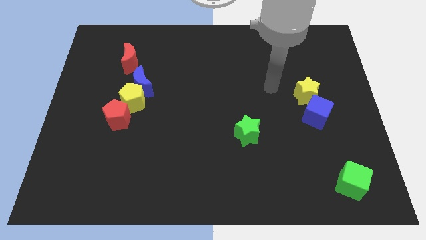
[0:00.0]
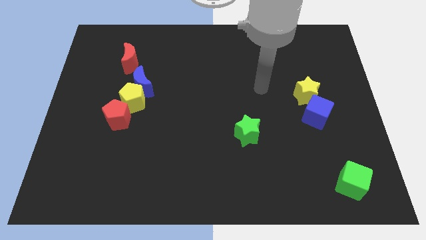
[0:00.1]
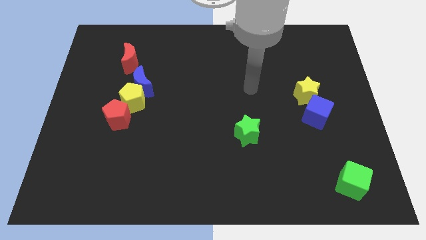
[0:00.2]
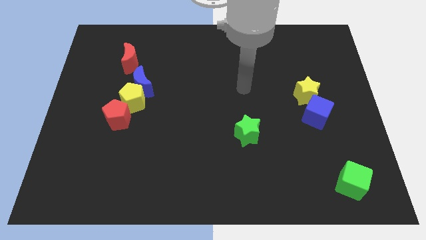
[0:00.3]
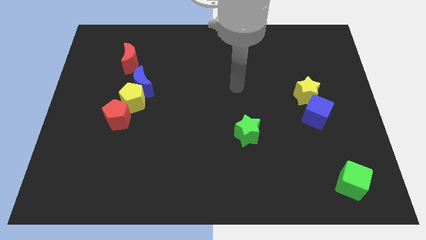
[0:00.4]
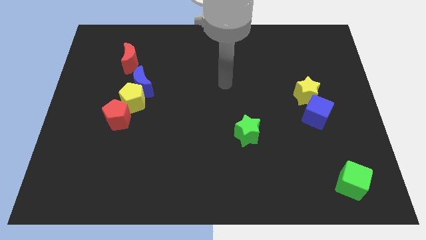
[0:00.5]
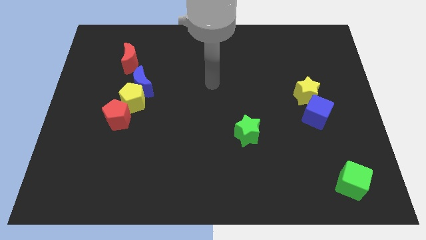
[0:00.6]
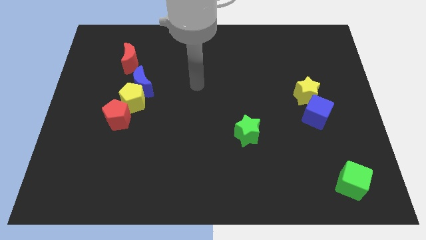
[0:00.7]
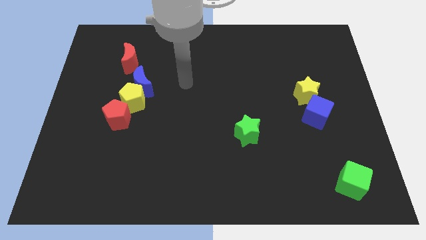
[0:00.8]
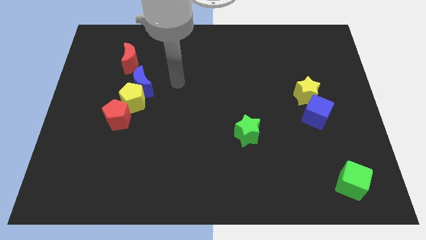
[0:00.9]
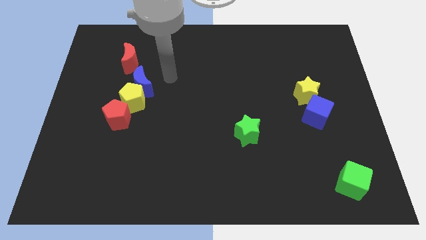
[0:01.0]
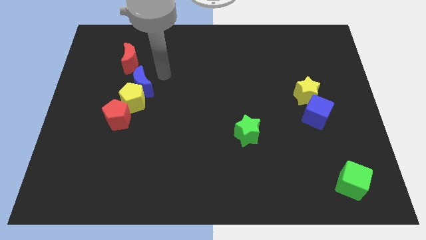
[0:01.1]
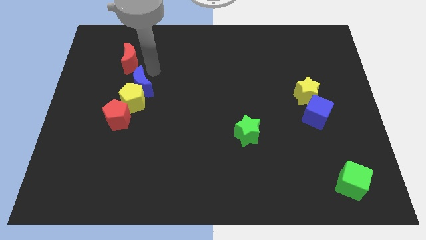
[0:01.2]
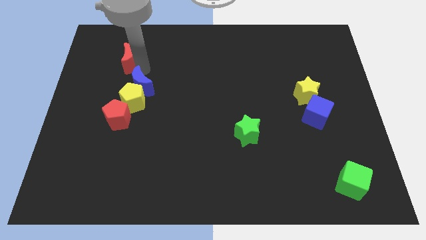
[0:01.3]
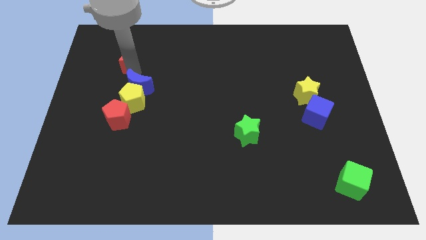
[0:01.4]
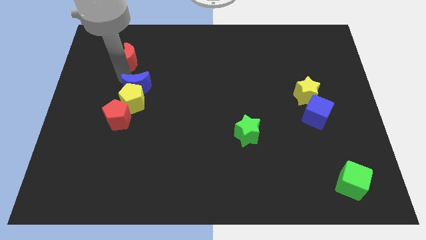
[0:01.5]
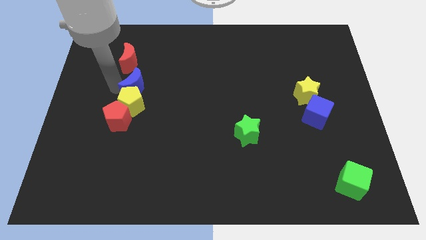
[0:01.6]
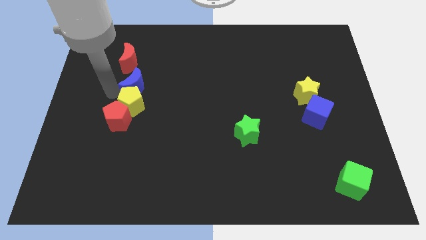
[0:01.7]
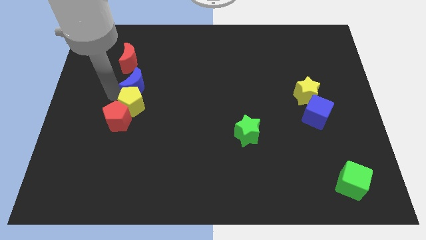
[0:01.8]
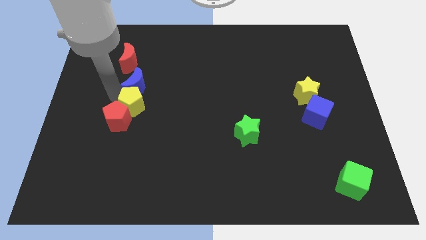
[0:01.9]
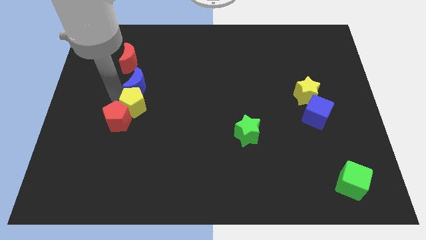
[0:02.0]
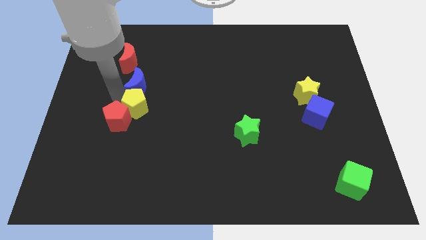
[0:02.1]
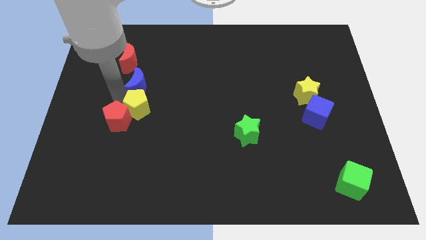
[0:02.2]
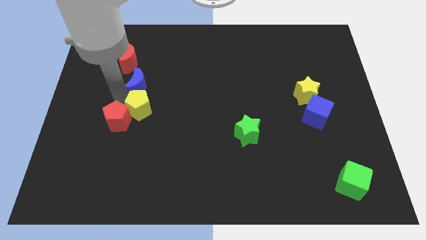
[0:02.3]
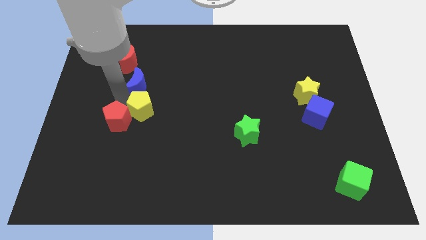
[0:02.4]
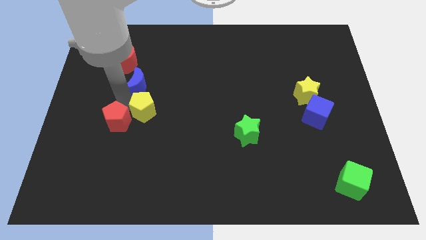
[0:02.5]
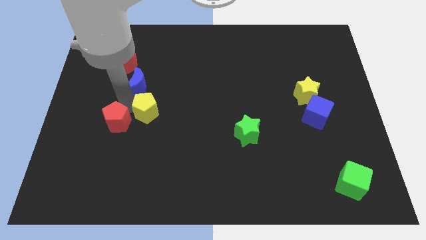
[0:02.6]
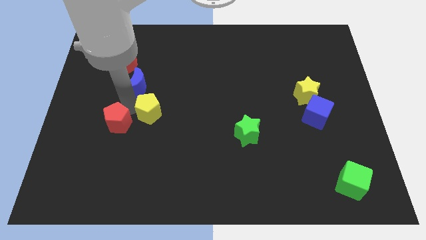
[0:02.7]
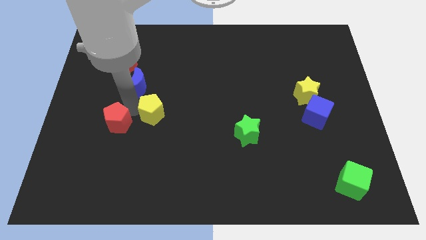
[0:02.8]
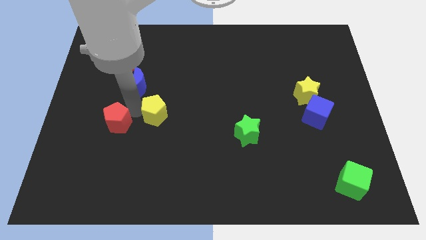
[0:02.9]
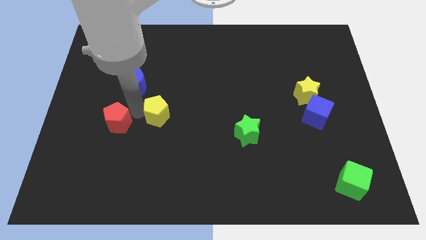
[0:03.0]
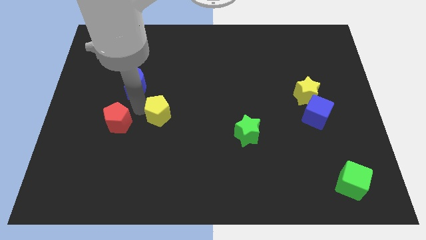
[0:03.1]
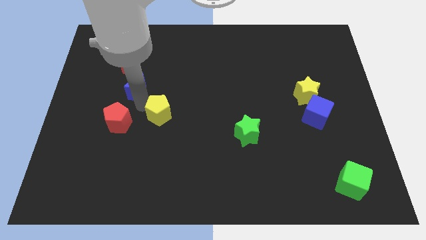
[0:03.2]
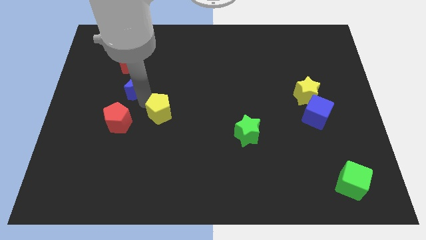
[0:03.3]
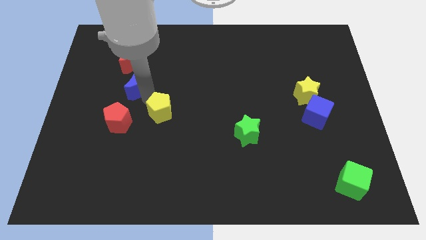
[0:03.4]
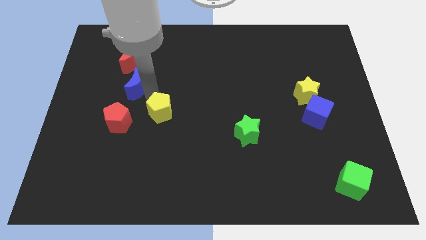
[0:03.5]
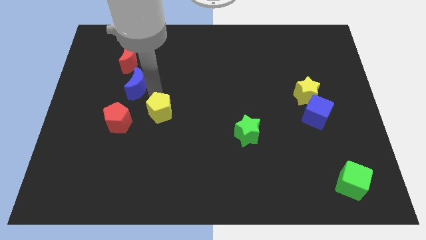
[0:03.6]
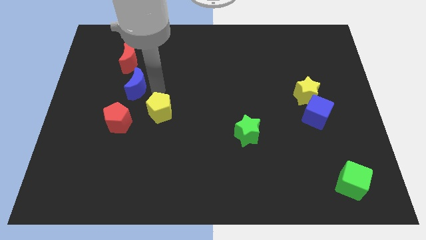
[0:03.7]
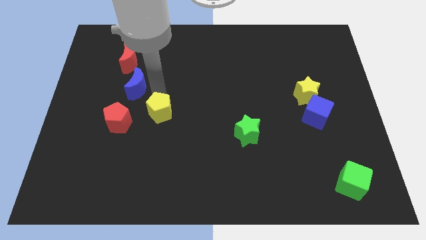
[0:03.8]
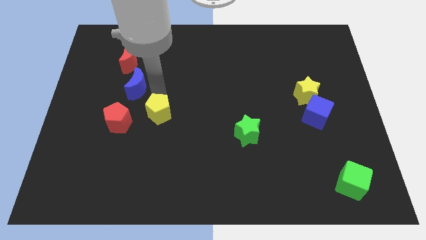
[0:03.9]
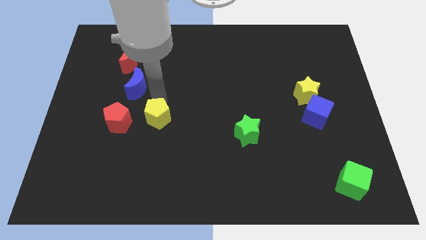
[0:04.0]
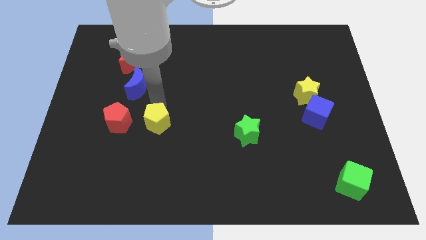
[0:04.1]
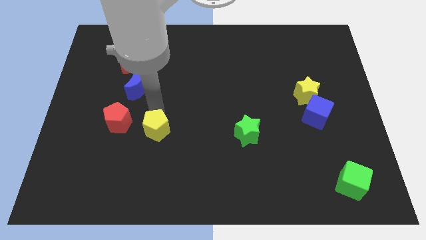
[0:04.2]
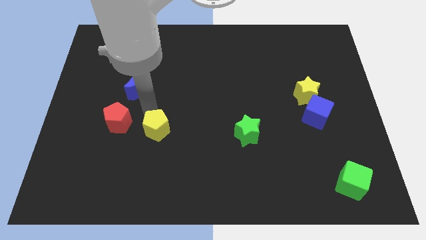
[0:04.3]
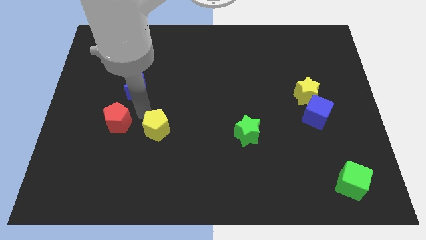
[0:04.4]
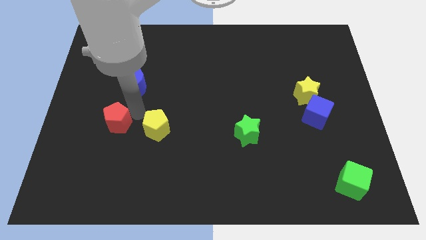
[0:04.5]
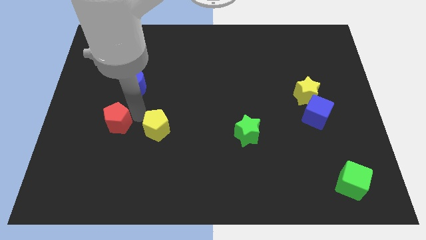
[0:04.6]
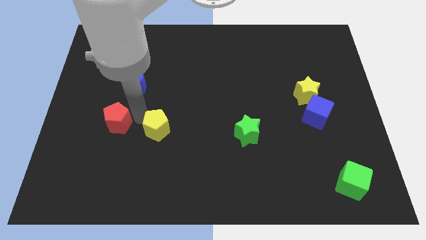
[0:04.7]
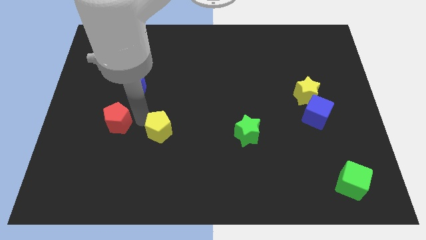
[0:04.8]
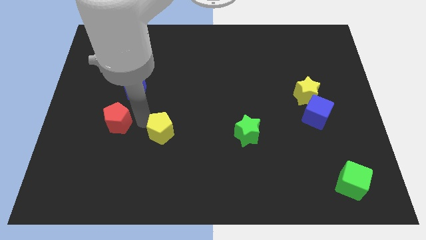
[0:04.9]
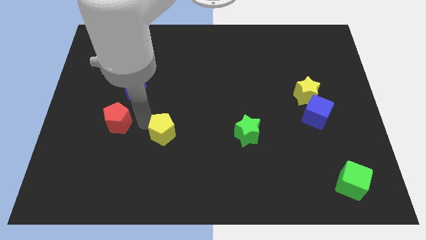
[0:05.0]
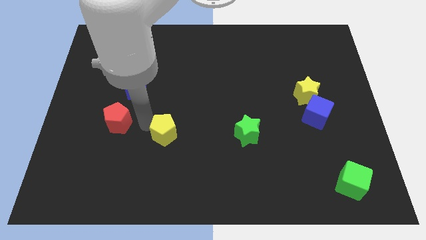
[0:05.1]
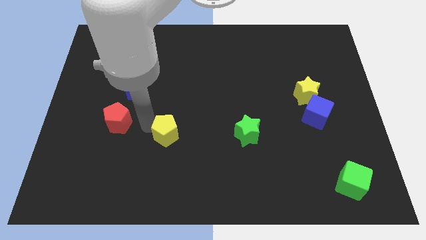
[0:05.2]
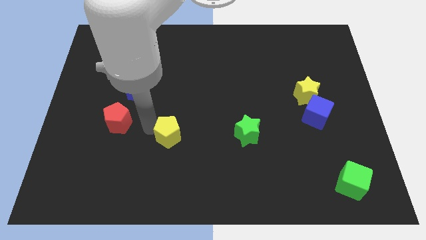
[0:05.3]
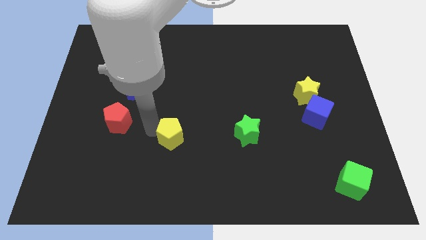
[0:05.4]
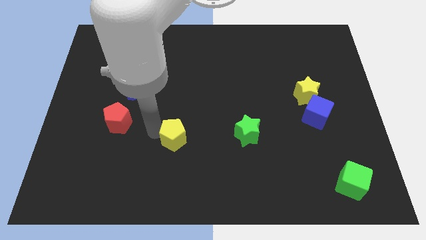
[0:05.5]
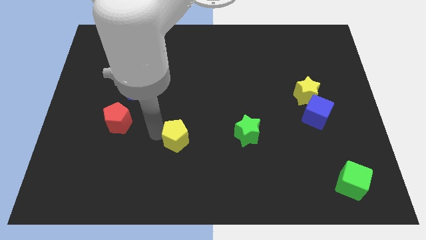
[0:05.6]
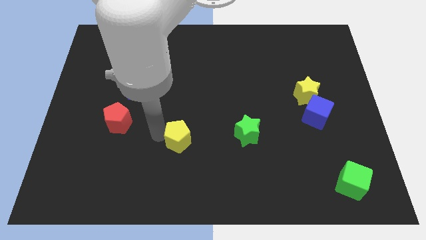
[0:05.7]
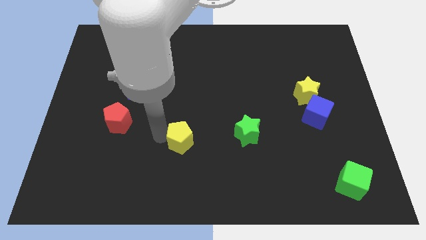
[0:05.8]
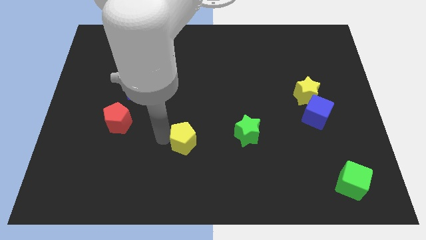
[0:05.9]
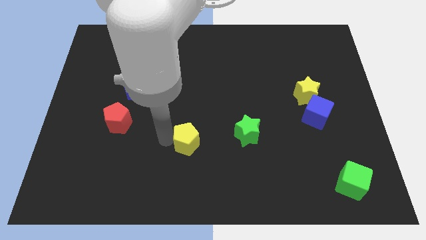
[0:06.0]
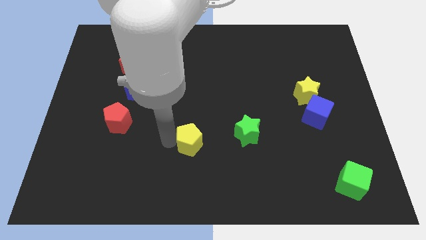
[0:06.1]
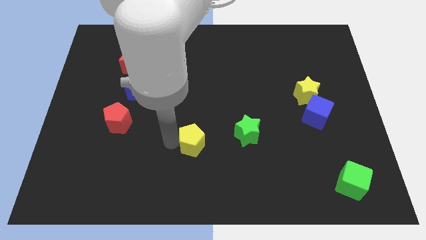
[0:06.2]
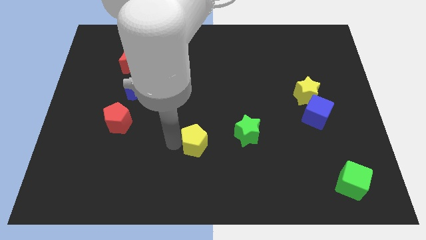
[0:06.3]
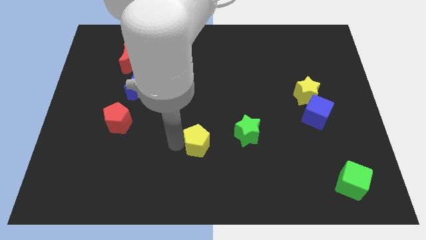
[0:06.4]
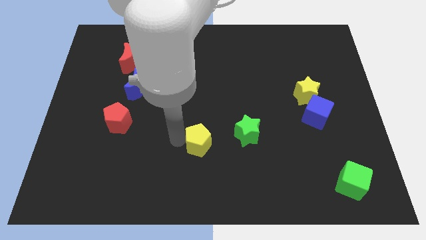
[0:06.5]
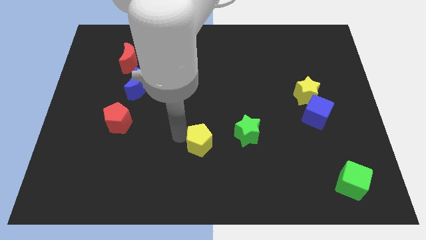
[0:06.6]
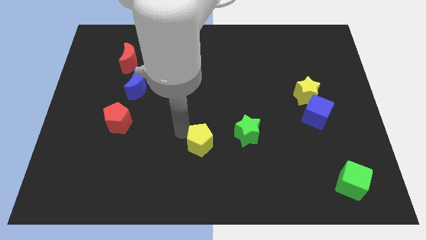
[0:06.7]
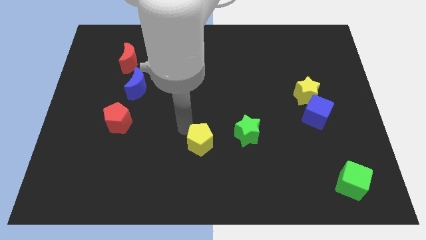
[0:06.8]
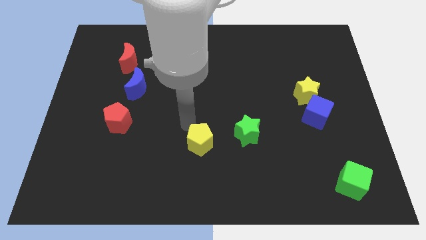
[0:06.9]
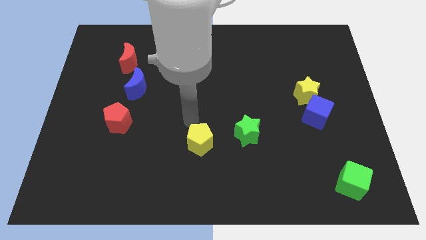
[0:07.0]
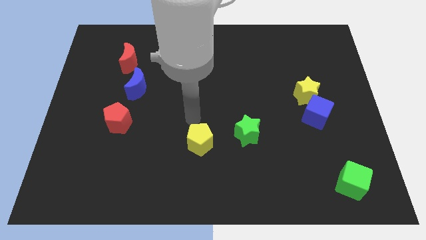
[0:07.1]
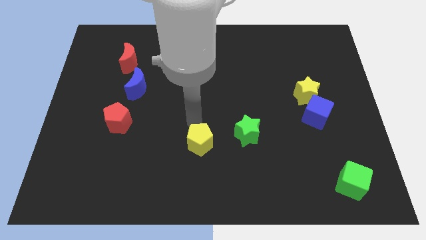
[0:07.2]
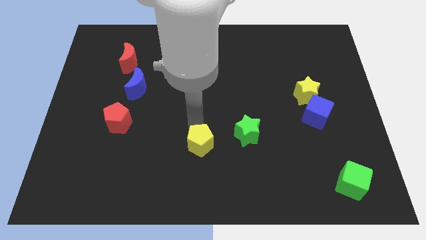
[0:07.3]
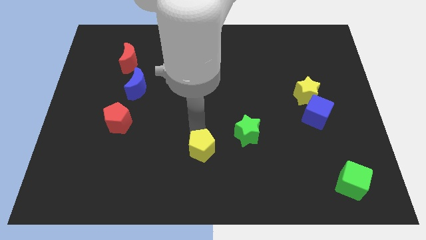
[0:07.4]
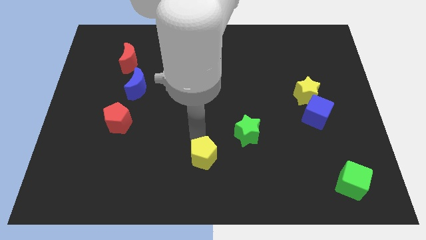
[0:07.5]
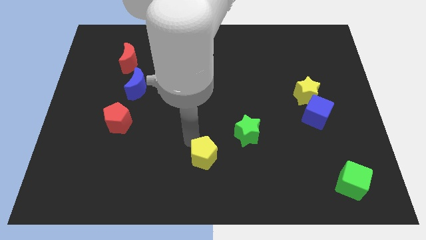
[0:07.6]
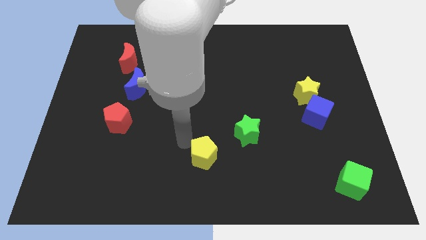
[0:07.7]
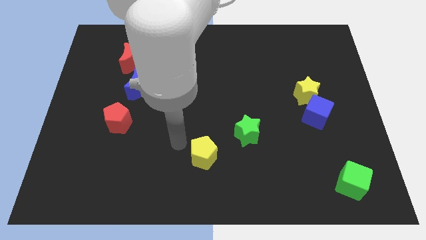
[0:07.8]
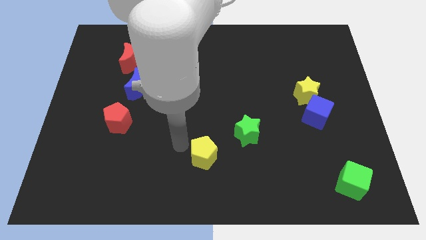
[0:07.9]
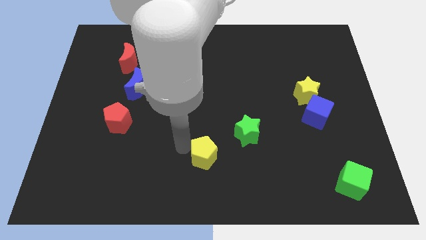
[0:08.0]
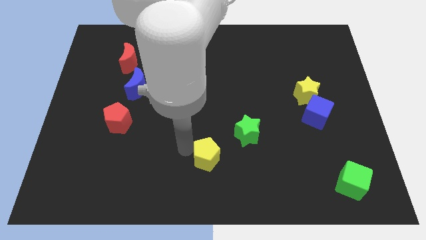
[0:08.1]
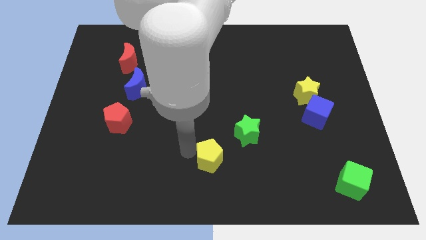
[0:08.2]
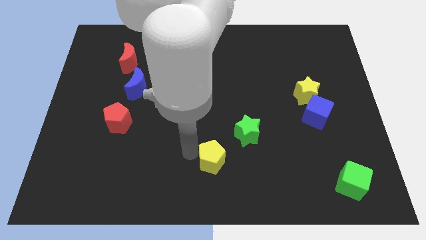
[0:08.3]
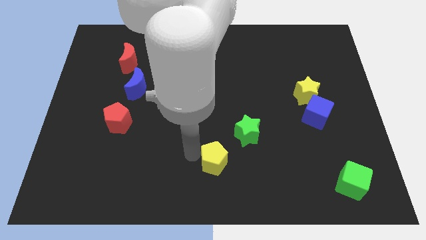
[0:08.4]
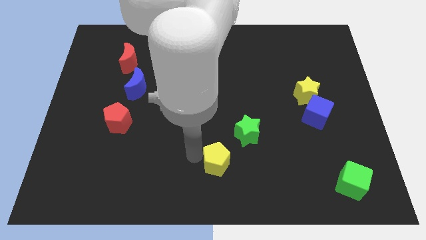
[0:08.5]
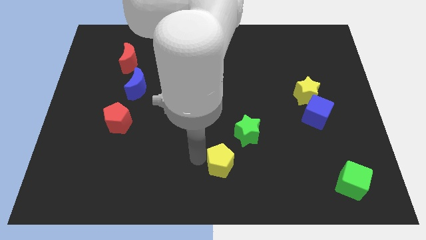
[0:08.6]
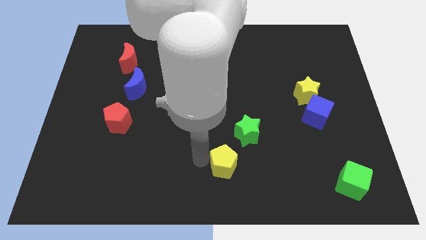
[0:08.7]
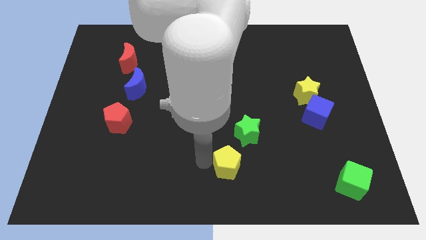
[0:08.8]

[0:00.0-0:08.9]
slide the yellow pentagon below the green star
